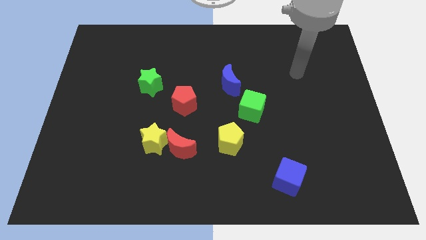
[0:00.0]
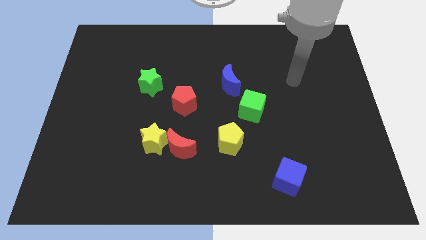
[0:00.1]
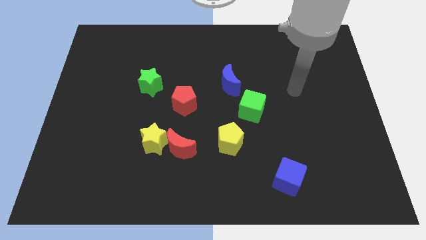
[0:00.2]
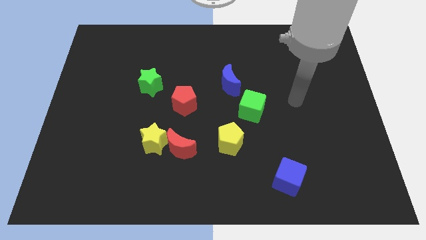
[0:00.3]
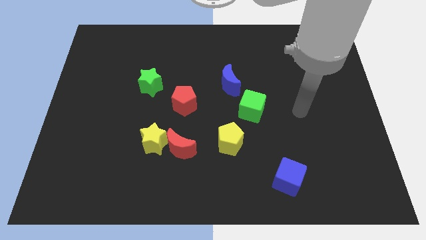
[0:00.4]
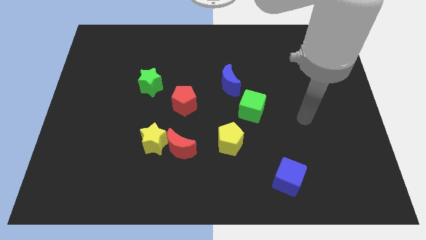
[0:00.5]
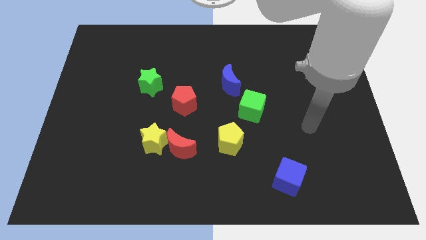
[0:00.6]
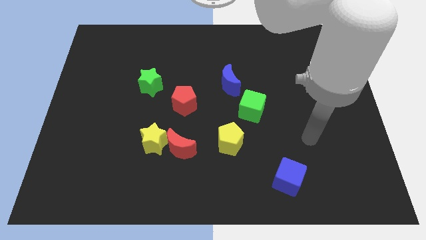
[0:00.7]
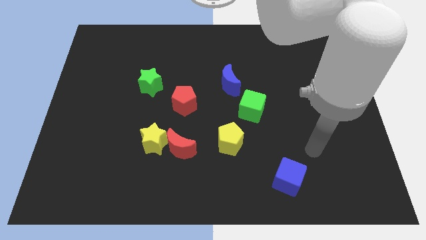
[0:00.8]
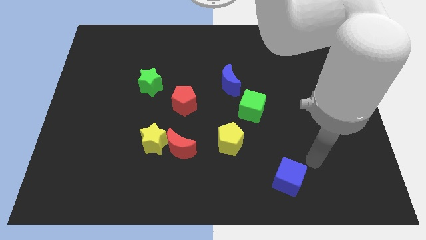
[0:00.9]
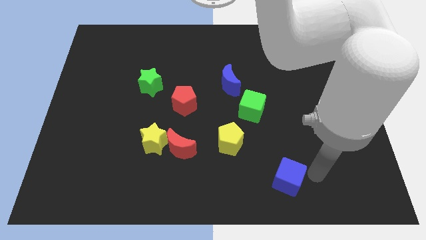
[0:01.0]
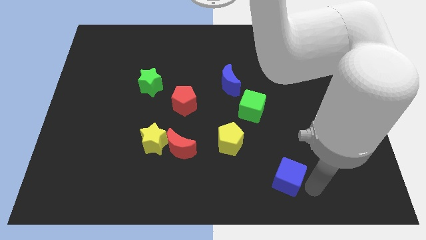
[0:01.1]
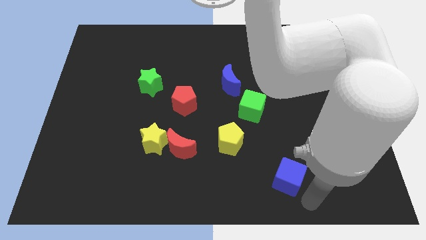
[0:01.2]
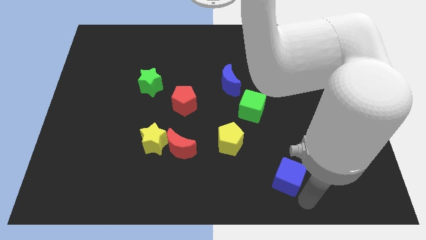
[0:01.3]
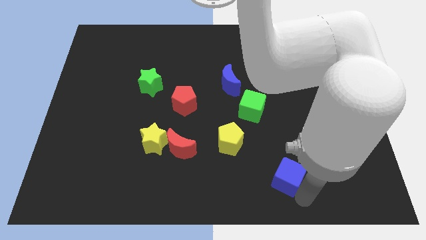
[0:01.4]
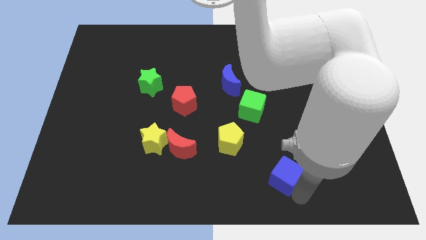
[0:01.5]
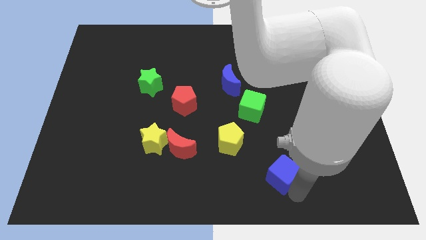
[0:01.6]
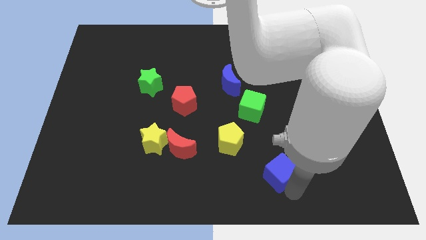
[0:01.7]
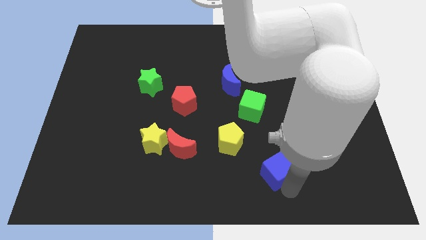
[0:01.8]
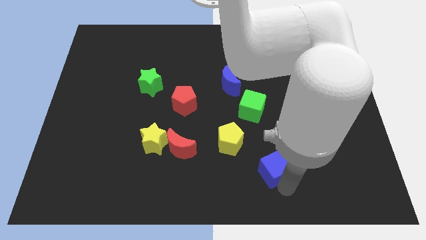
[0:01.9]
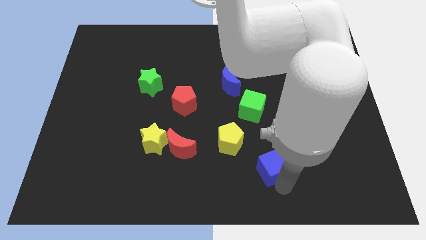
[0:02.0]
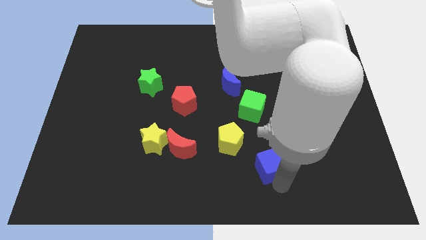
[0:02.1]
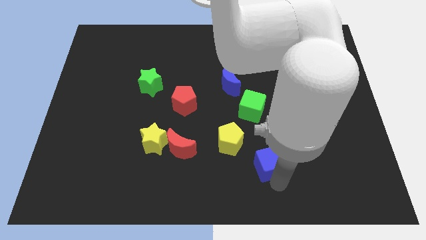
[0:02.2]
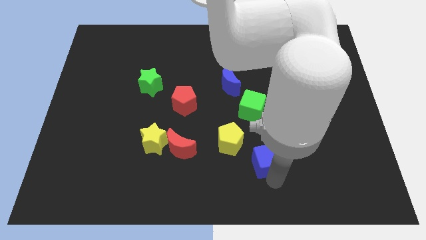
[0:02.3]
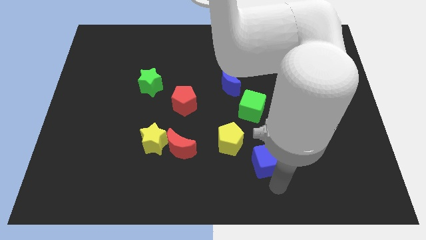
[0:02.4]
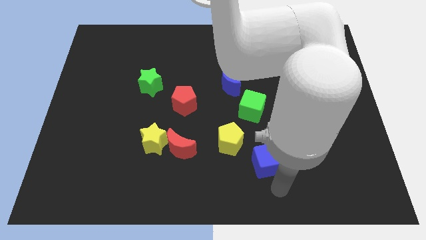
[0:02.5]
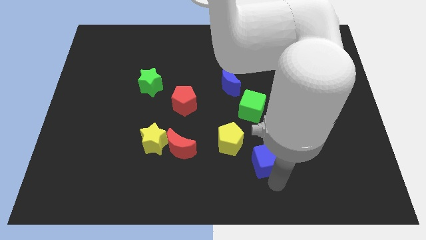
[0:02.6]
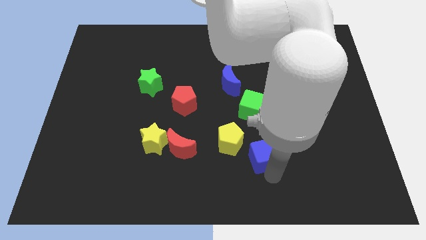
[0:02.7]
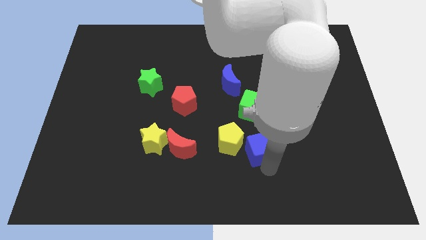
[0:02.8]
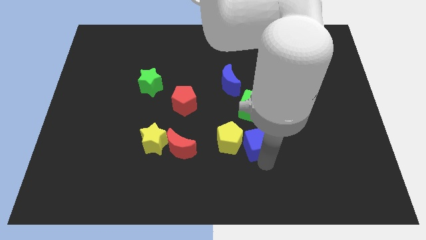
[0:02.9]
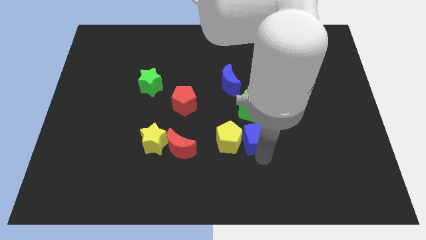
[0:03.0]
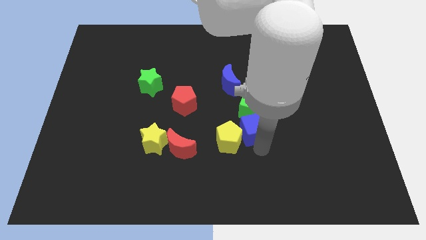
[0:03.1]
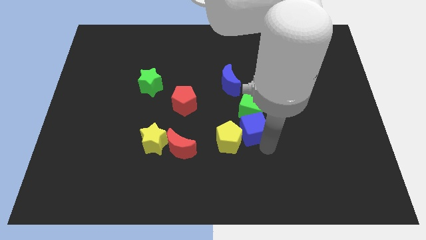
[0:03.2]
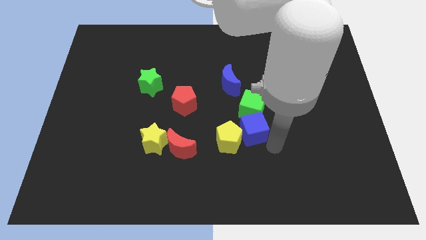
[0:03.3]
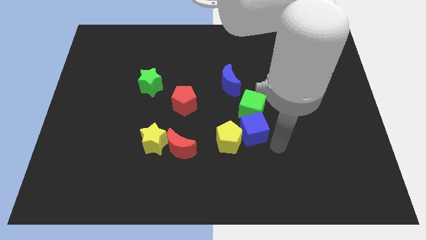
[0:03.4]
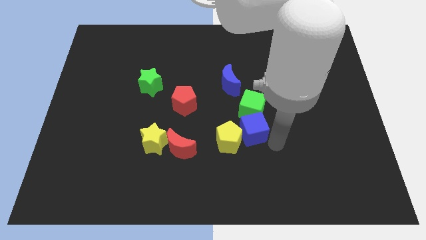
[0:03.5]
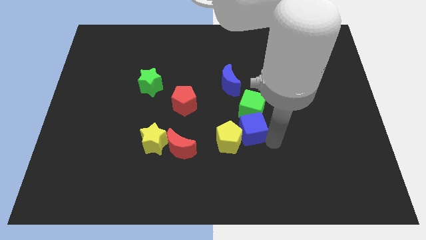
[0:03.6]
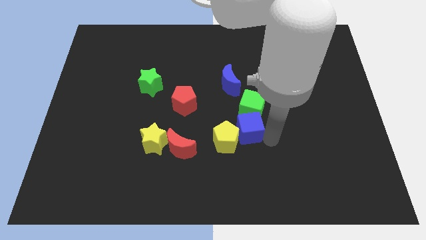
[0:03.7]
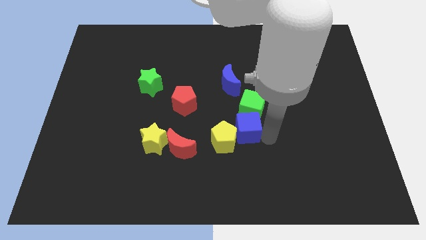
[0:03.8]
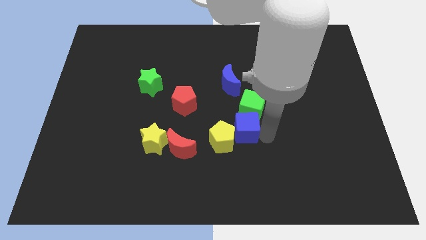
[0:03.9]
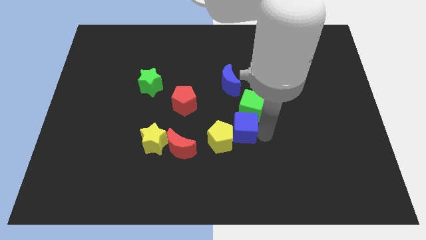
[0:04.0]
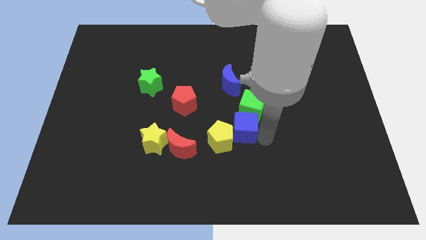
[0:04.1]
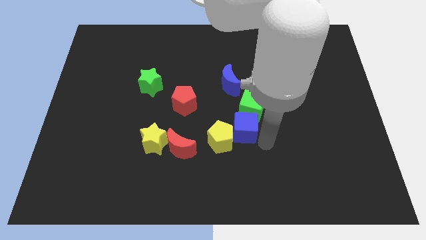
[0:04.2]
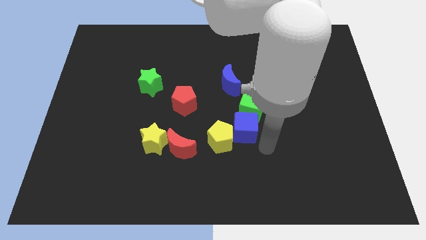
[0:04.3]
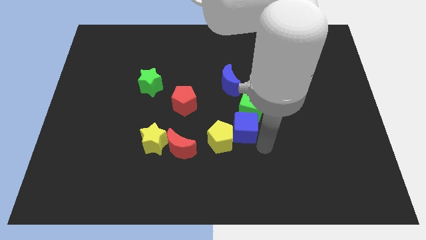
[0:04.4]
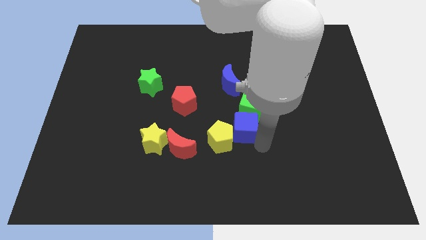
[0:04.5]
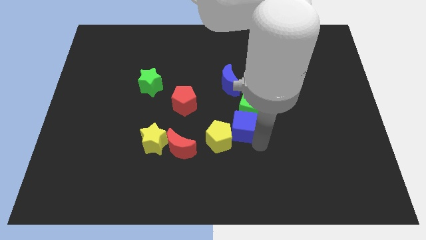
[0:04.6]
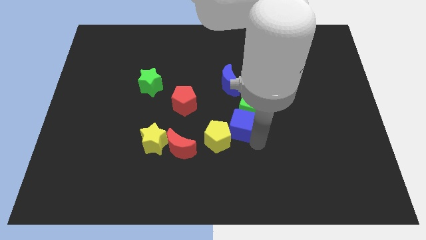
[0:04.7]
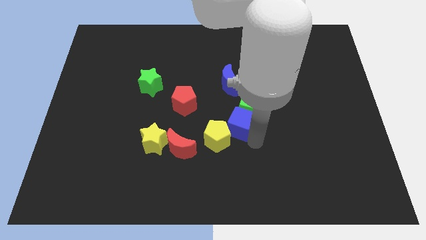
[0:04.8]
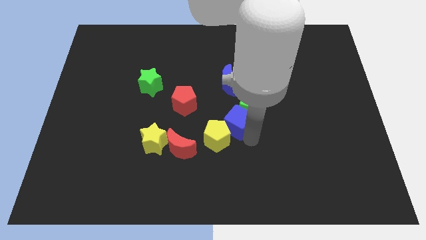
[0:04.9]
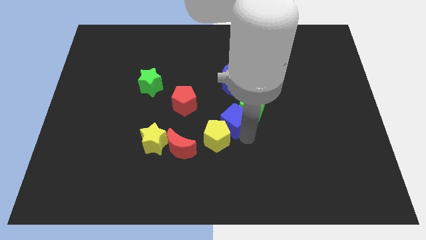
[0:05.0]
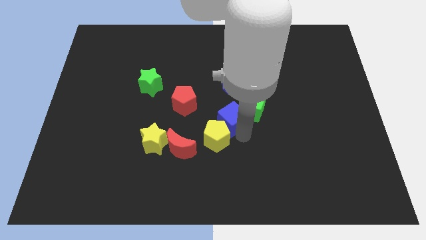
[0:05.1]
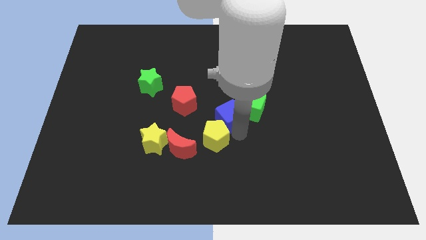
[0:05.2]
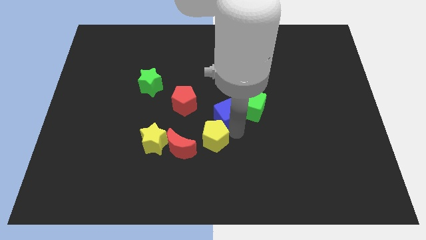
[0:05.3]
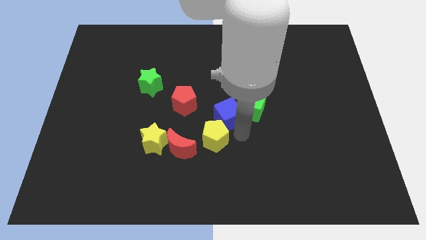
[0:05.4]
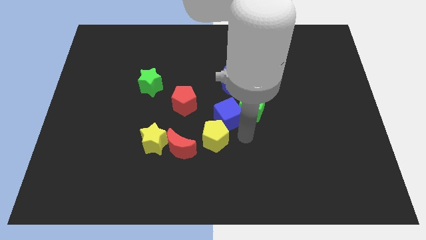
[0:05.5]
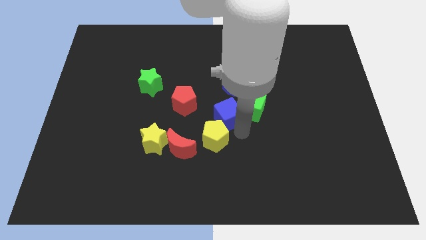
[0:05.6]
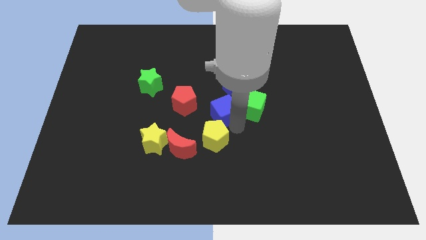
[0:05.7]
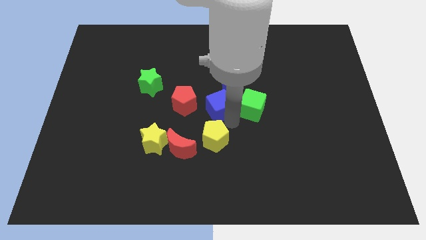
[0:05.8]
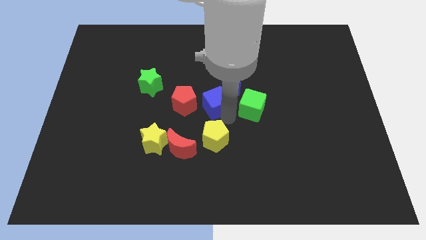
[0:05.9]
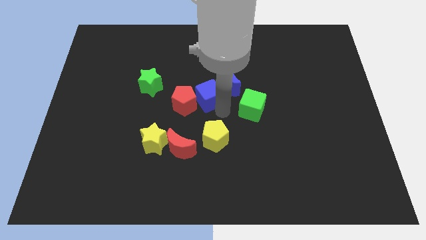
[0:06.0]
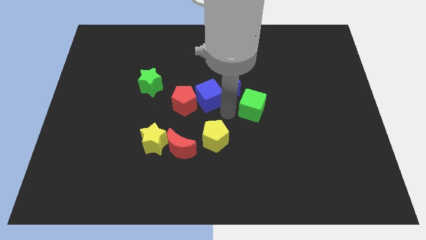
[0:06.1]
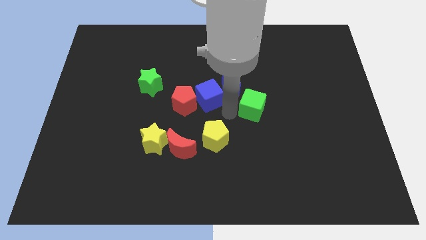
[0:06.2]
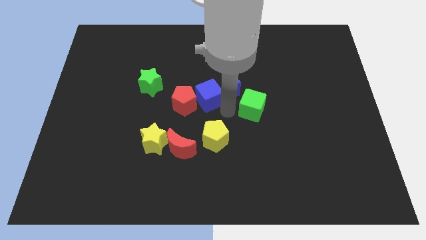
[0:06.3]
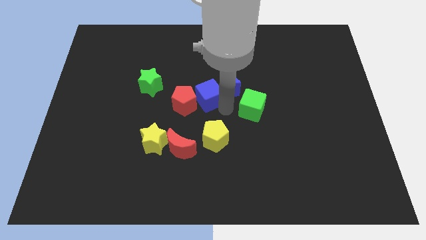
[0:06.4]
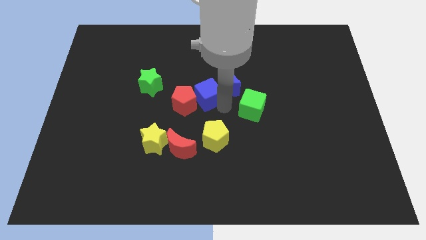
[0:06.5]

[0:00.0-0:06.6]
slide the blue cube to the right of the green star
